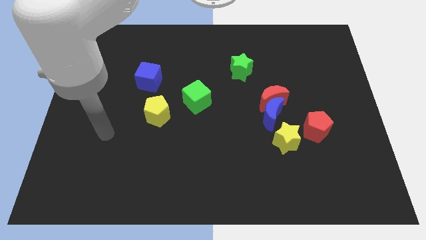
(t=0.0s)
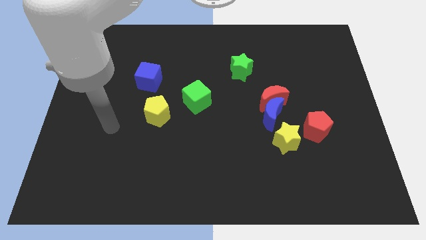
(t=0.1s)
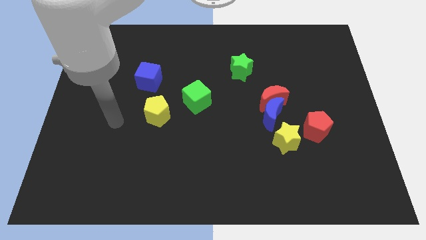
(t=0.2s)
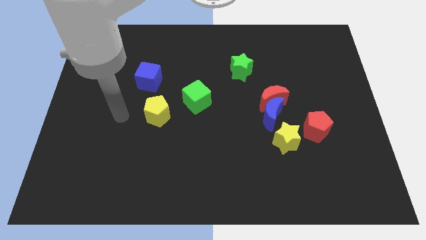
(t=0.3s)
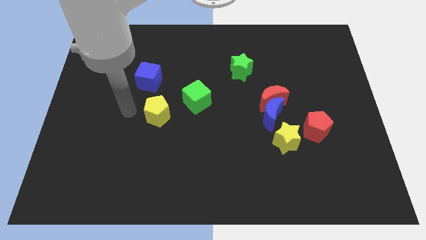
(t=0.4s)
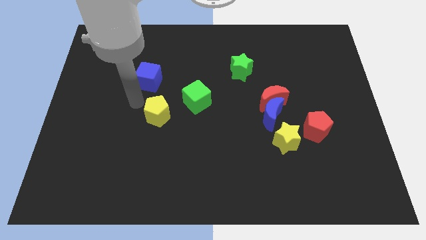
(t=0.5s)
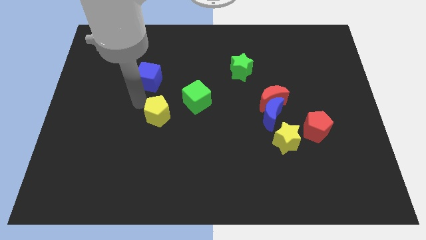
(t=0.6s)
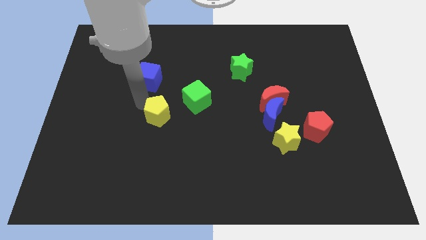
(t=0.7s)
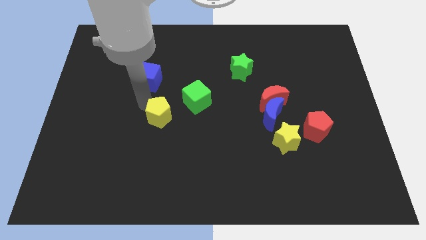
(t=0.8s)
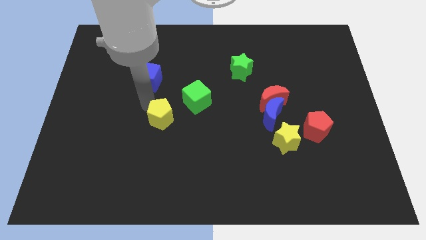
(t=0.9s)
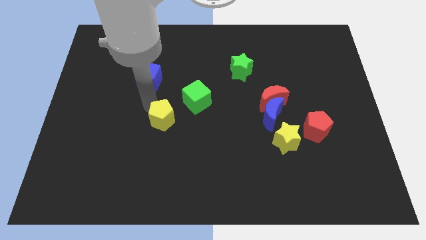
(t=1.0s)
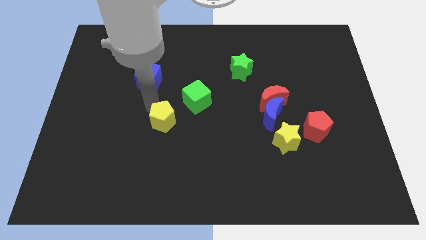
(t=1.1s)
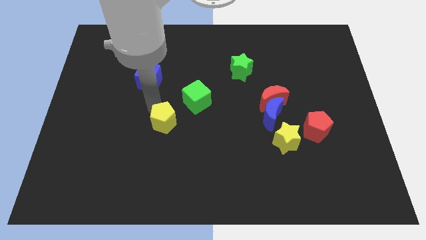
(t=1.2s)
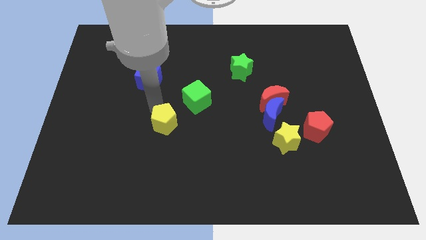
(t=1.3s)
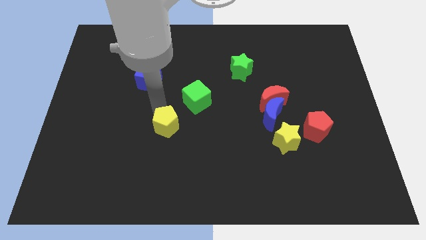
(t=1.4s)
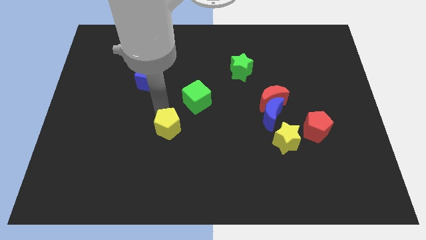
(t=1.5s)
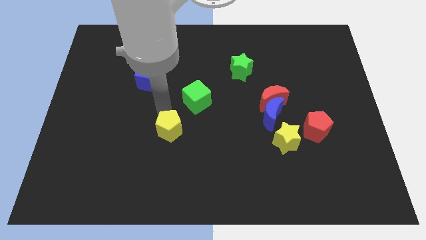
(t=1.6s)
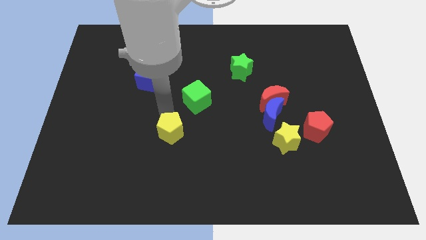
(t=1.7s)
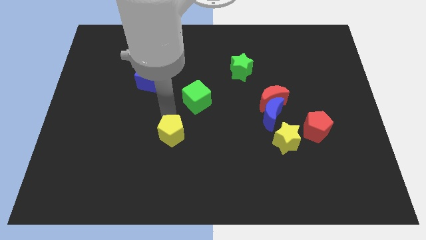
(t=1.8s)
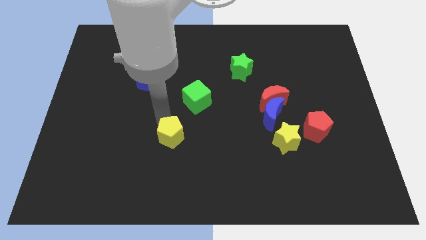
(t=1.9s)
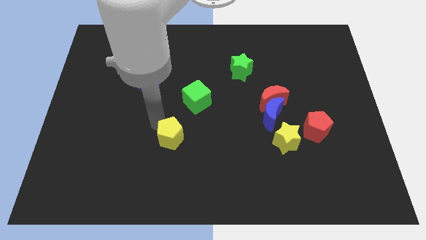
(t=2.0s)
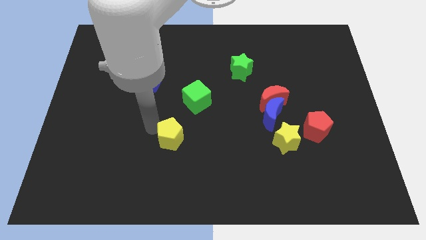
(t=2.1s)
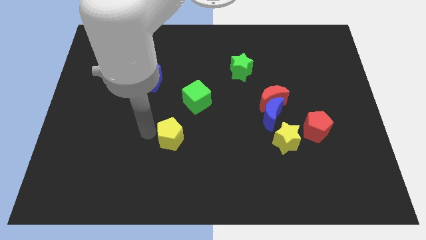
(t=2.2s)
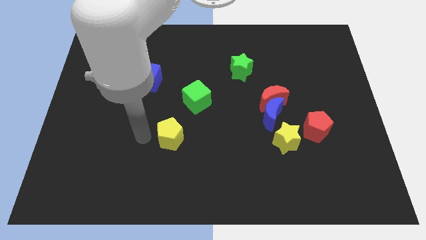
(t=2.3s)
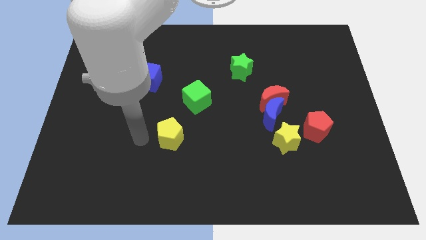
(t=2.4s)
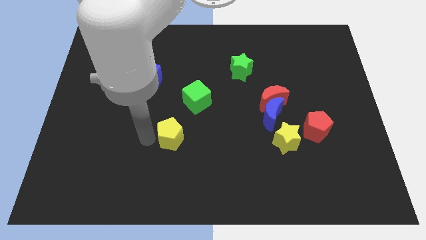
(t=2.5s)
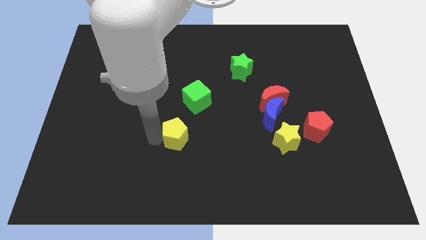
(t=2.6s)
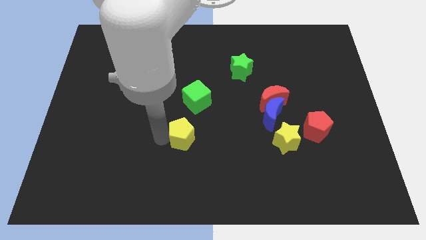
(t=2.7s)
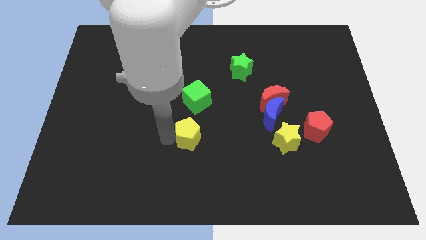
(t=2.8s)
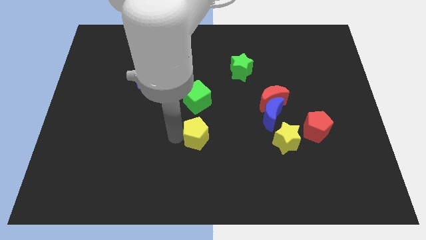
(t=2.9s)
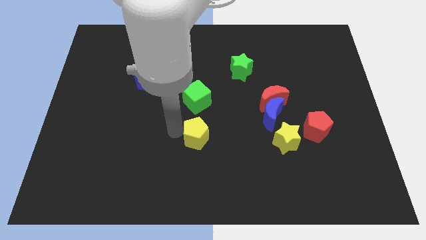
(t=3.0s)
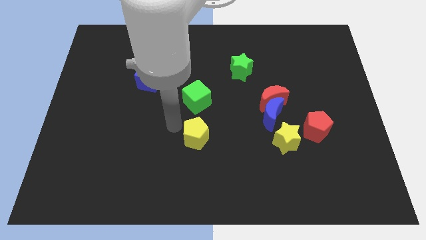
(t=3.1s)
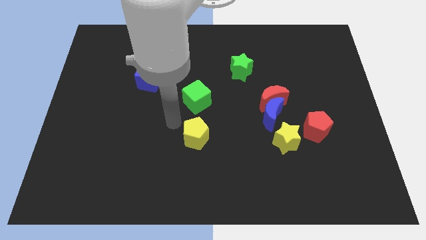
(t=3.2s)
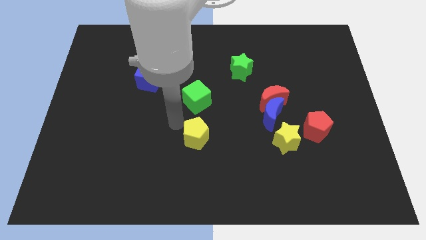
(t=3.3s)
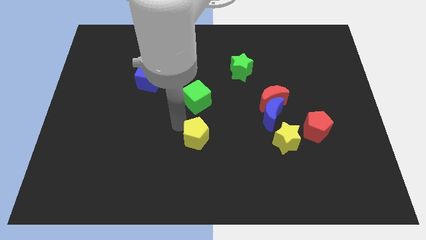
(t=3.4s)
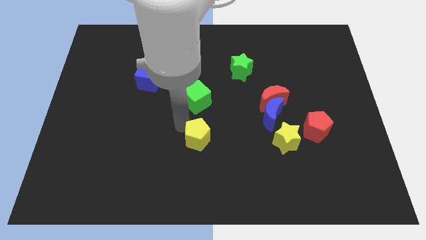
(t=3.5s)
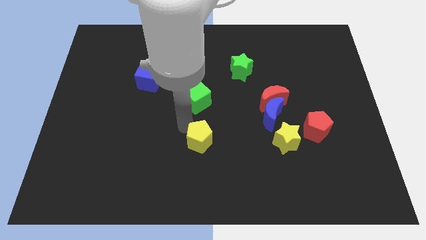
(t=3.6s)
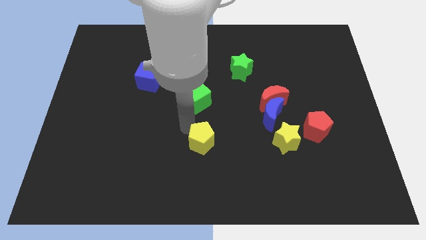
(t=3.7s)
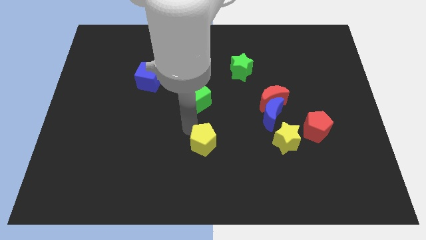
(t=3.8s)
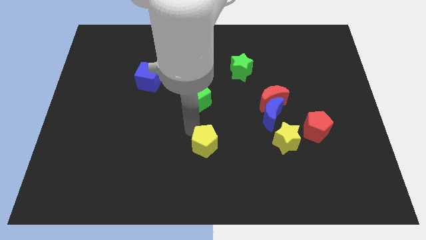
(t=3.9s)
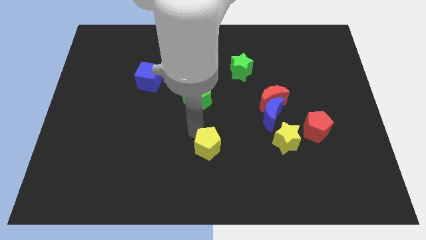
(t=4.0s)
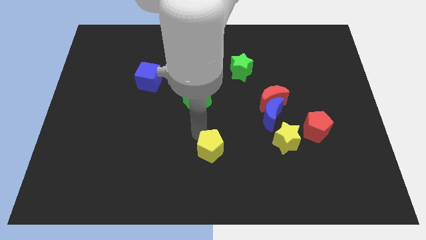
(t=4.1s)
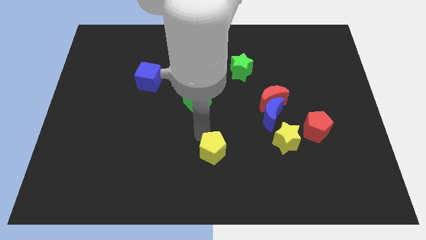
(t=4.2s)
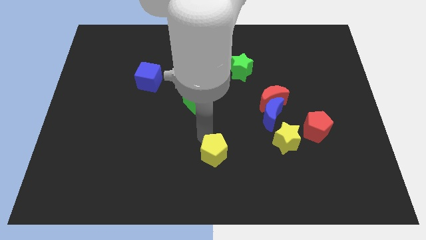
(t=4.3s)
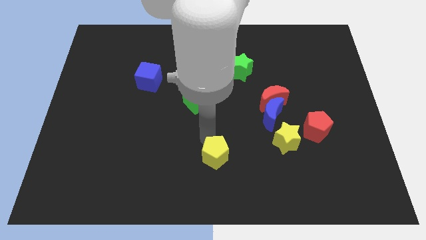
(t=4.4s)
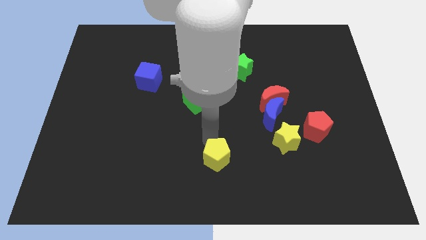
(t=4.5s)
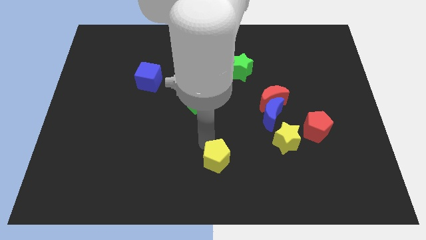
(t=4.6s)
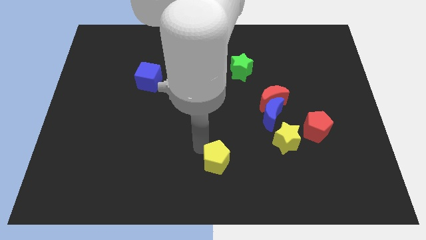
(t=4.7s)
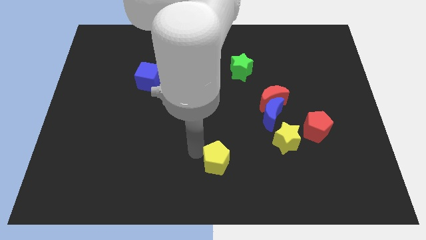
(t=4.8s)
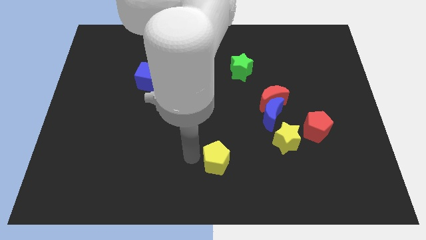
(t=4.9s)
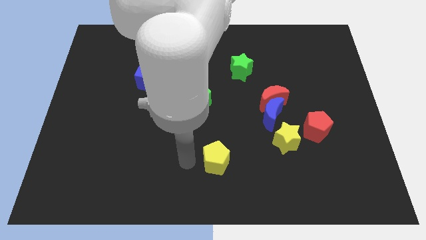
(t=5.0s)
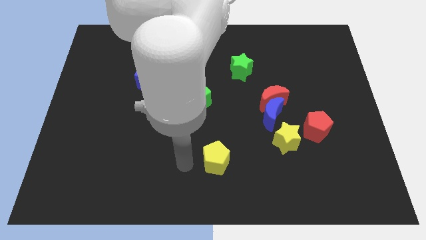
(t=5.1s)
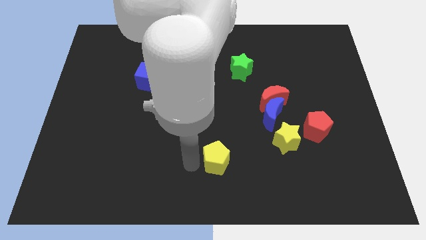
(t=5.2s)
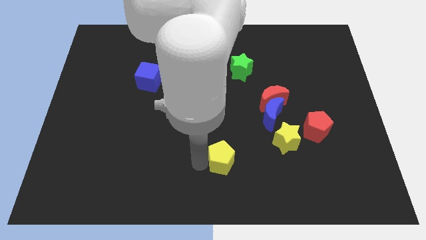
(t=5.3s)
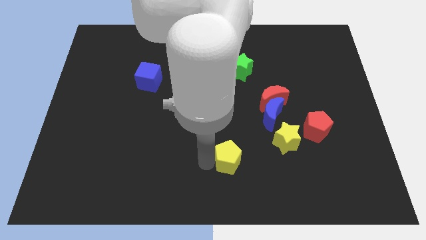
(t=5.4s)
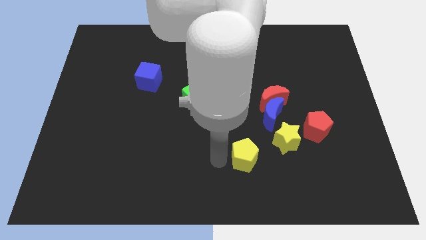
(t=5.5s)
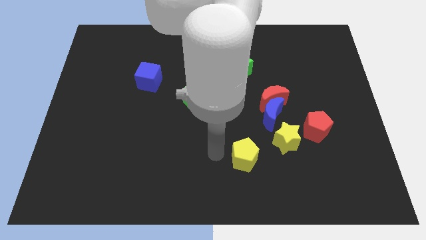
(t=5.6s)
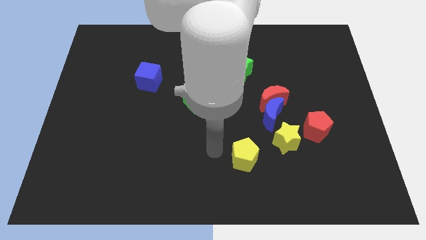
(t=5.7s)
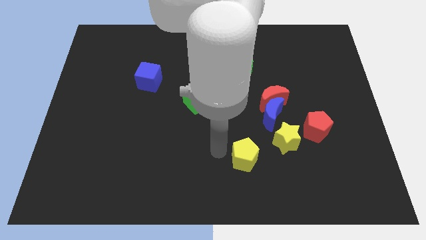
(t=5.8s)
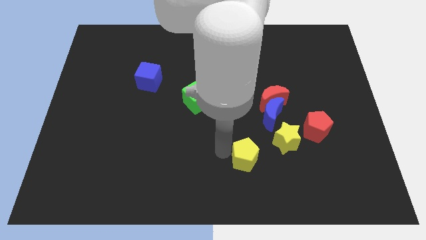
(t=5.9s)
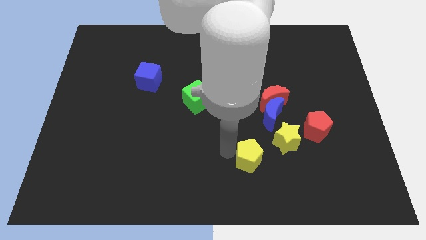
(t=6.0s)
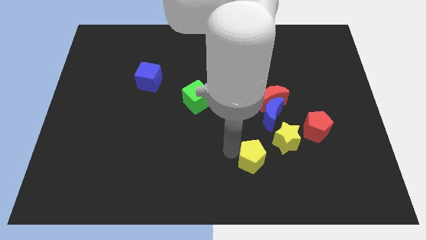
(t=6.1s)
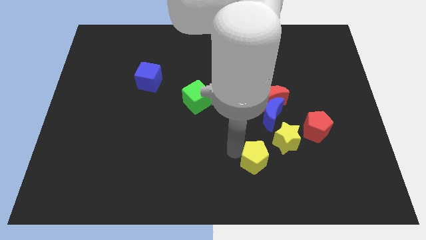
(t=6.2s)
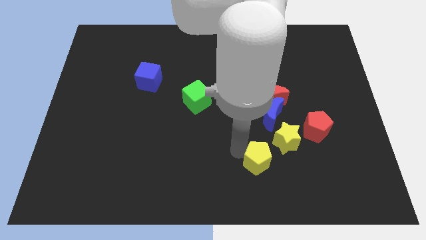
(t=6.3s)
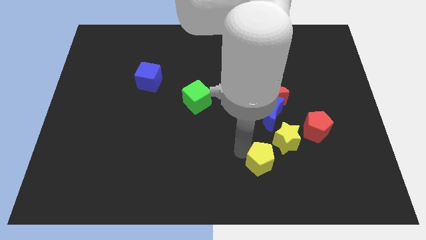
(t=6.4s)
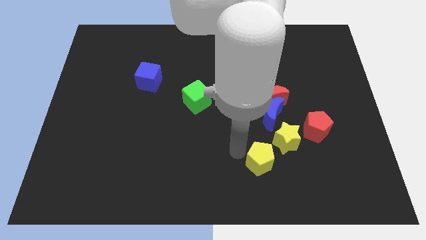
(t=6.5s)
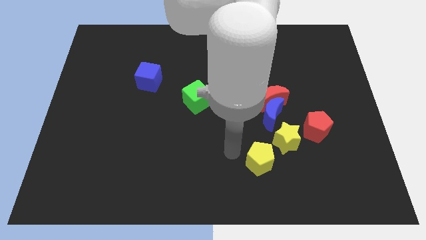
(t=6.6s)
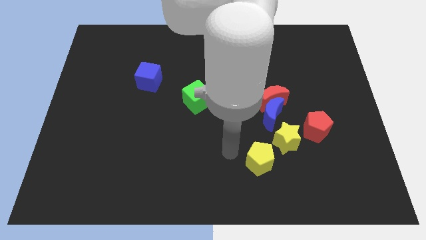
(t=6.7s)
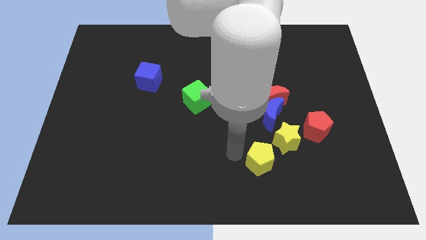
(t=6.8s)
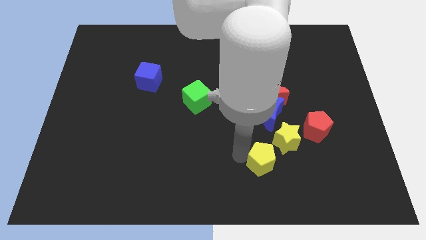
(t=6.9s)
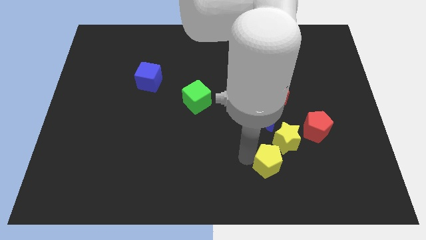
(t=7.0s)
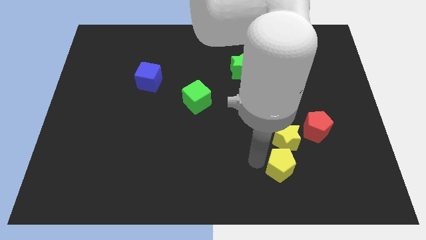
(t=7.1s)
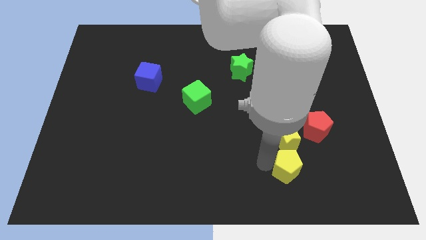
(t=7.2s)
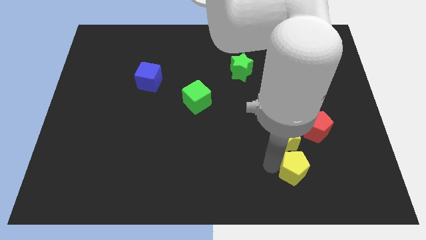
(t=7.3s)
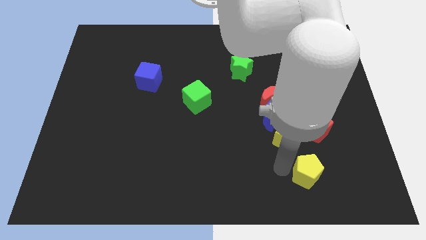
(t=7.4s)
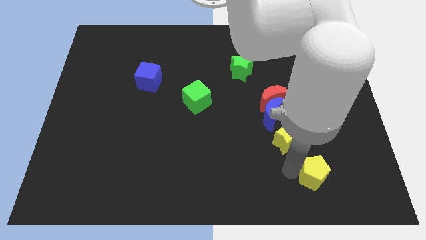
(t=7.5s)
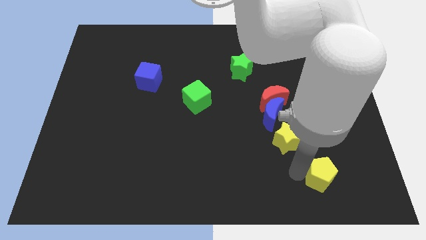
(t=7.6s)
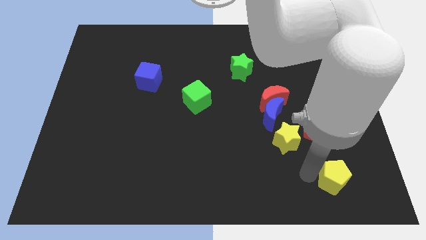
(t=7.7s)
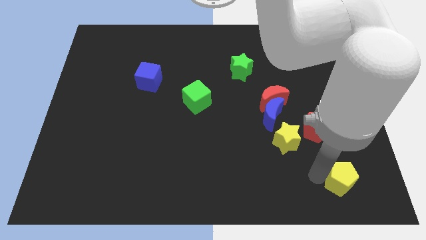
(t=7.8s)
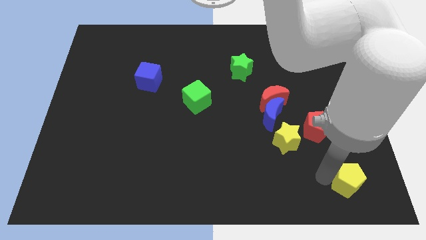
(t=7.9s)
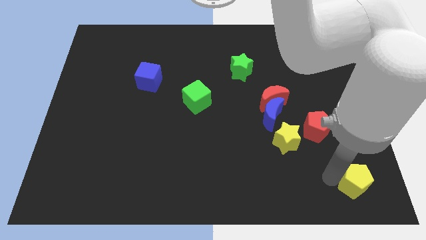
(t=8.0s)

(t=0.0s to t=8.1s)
put the yellow pentagon to the bottom right
